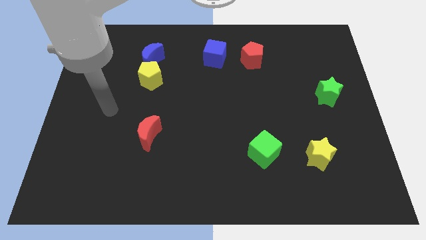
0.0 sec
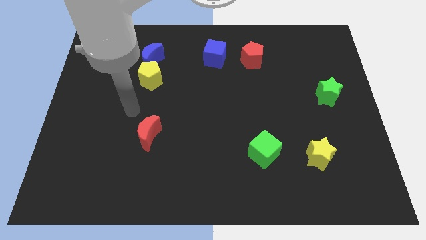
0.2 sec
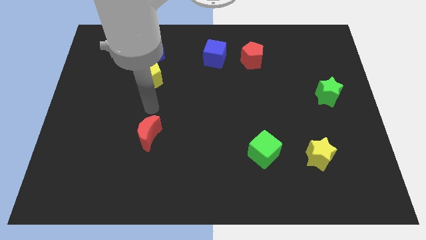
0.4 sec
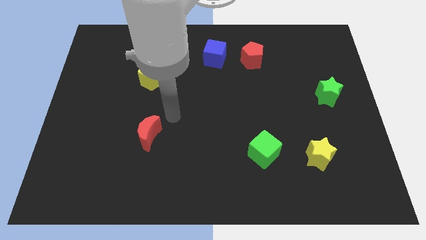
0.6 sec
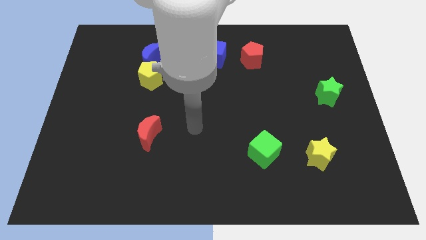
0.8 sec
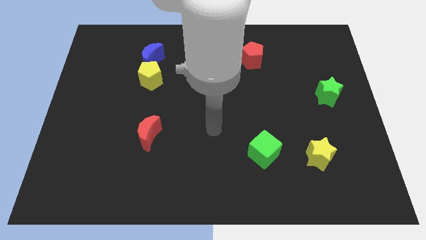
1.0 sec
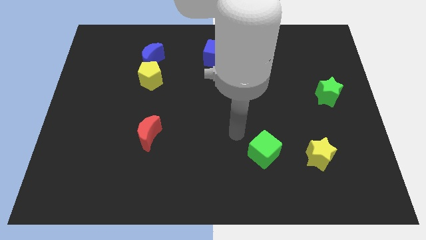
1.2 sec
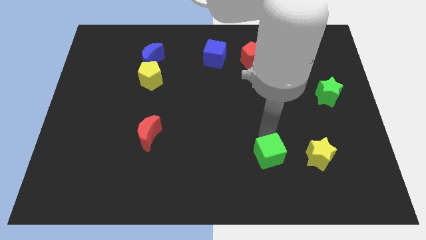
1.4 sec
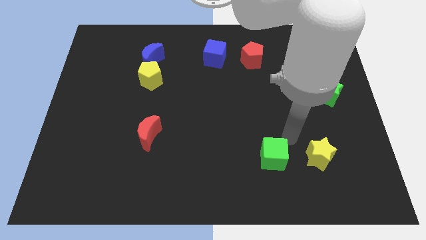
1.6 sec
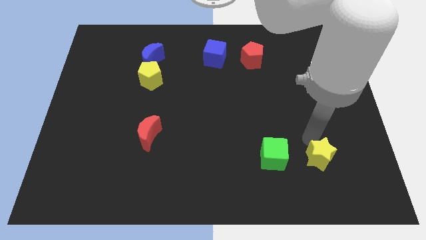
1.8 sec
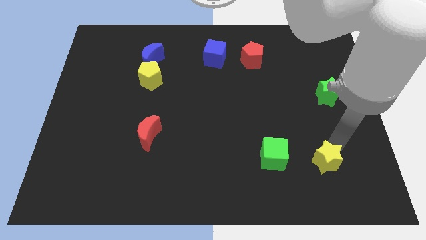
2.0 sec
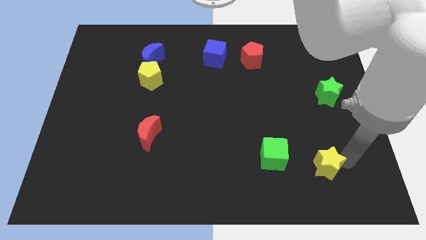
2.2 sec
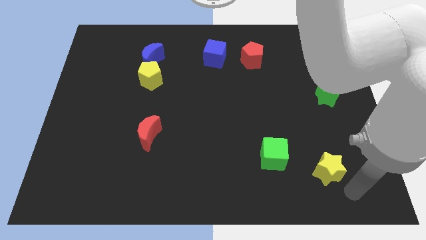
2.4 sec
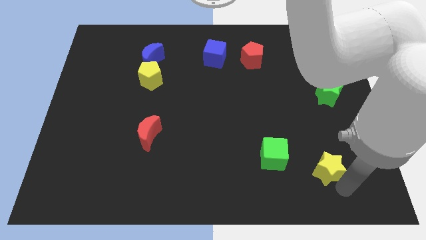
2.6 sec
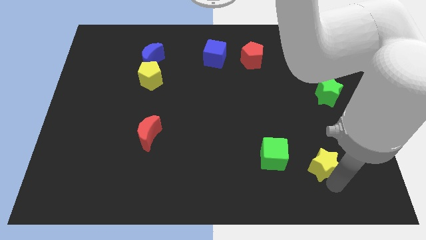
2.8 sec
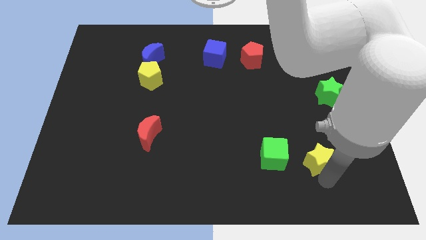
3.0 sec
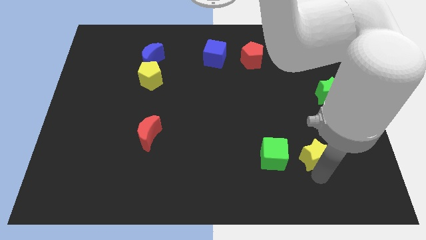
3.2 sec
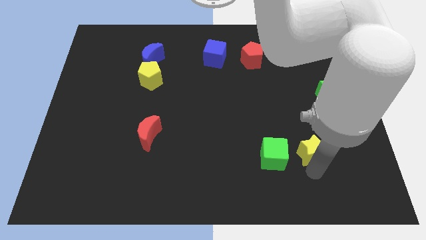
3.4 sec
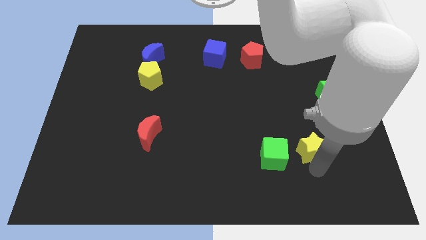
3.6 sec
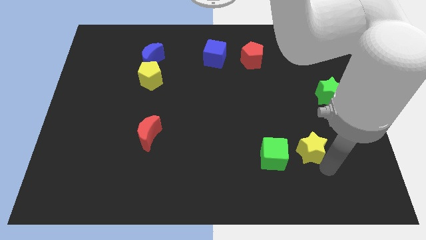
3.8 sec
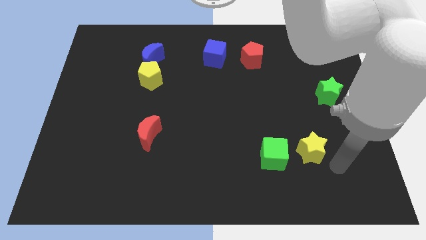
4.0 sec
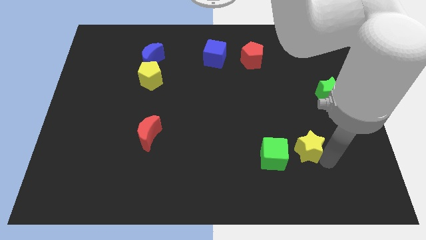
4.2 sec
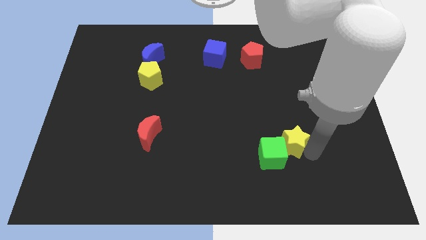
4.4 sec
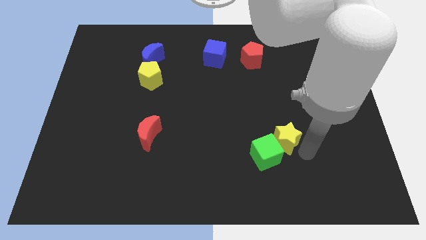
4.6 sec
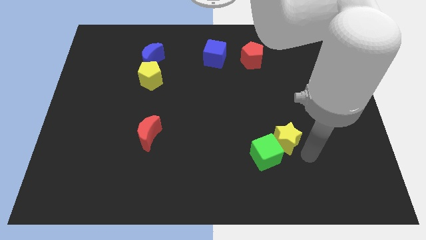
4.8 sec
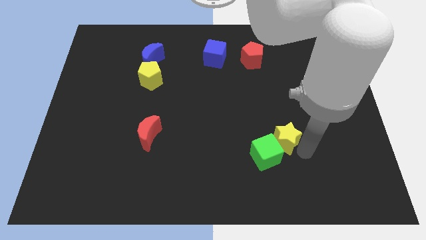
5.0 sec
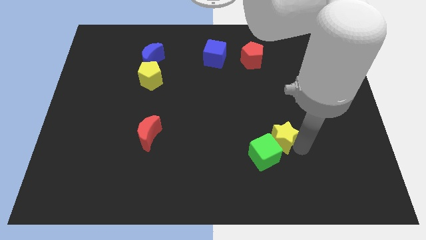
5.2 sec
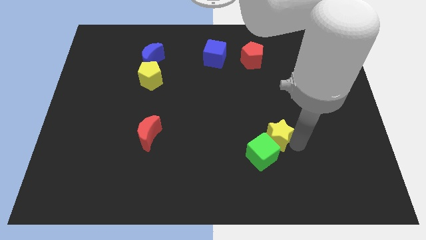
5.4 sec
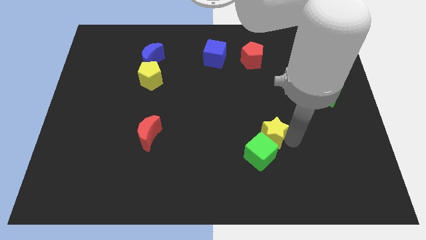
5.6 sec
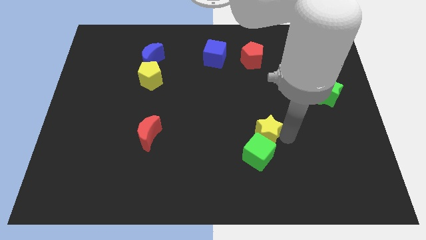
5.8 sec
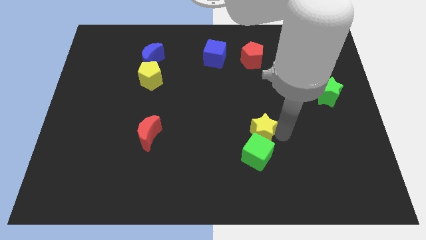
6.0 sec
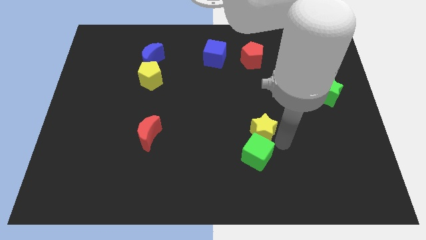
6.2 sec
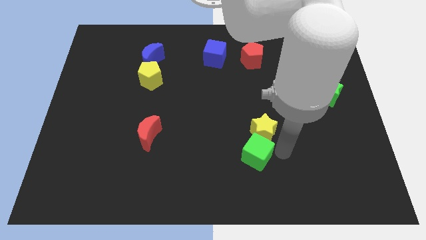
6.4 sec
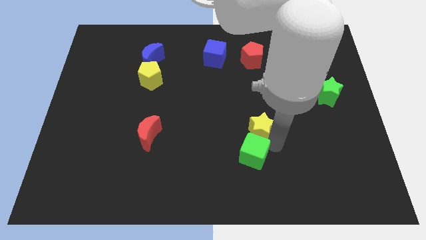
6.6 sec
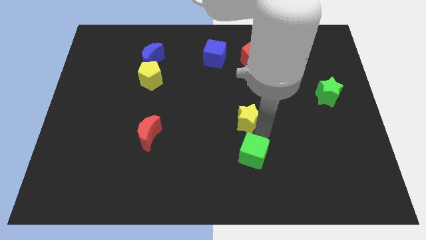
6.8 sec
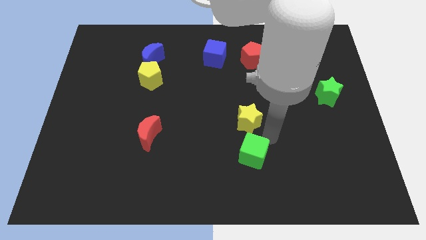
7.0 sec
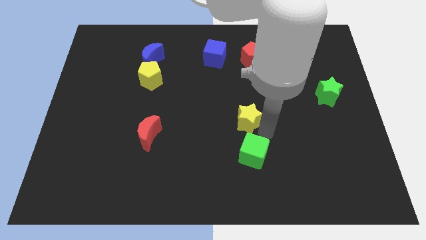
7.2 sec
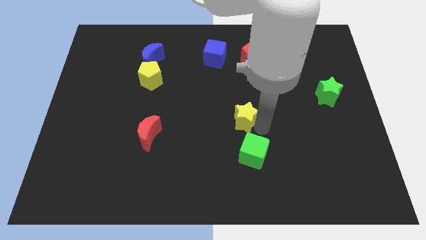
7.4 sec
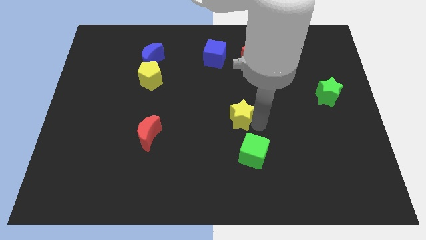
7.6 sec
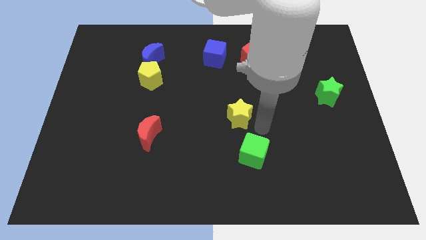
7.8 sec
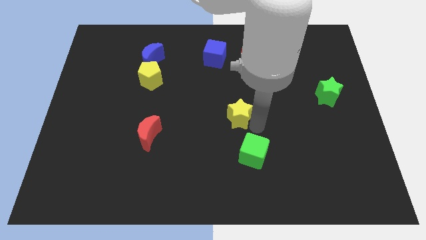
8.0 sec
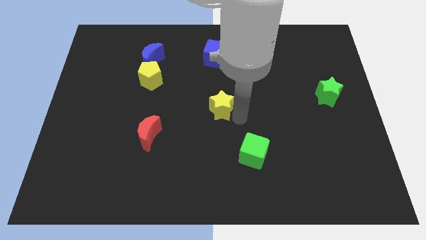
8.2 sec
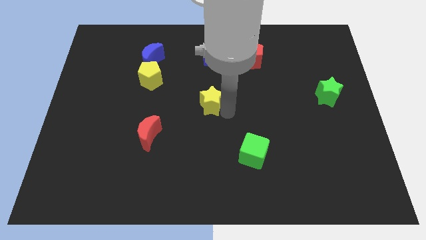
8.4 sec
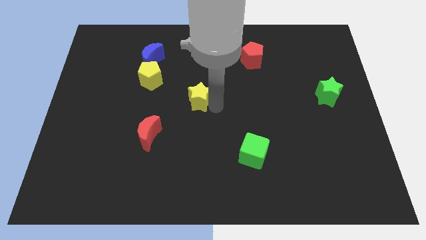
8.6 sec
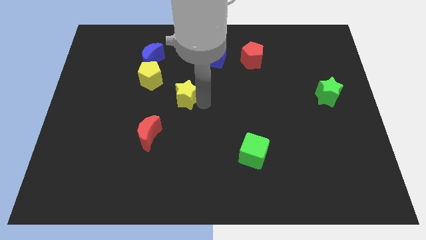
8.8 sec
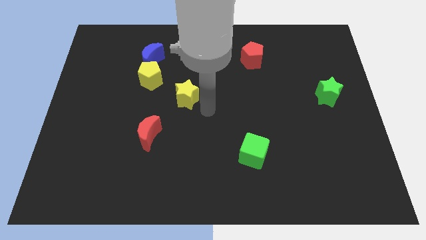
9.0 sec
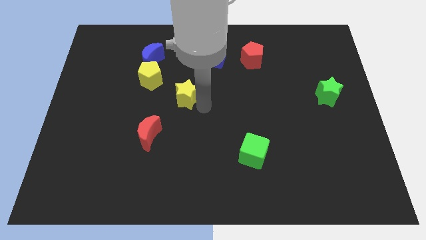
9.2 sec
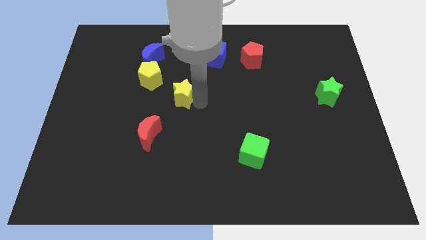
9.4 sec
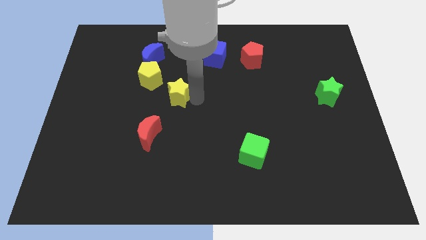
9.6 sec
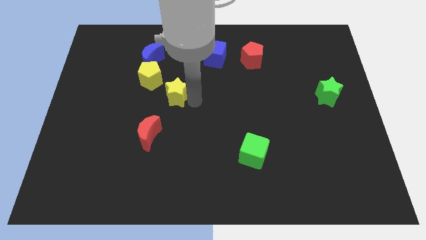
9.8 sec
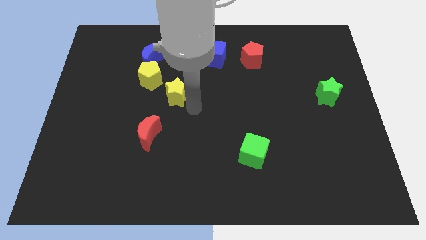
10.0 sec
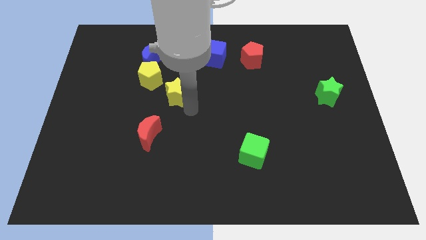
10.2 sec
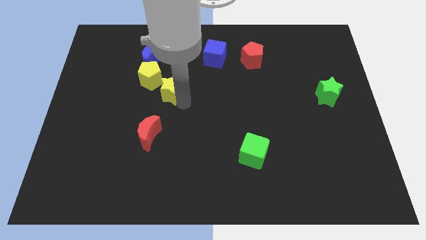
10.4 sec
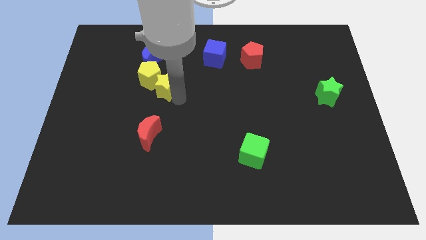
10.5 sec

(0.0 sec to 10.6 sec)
push the yellow star close to the yellow pentagon

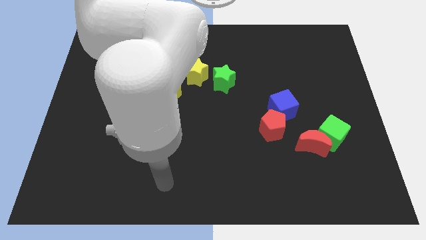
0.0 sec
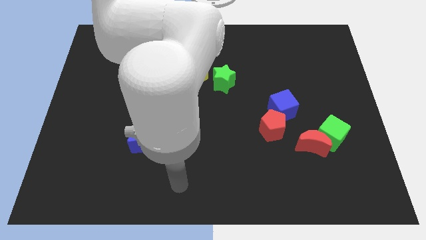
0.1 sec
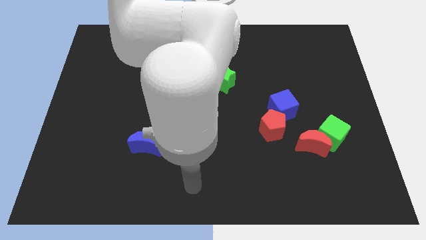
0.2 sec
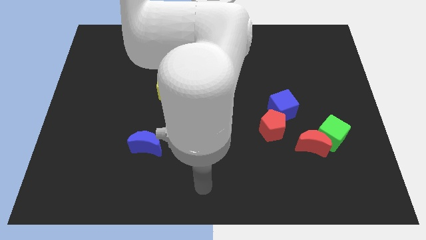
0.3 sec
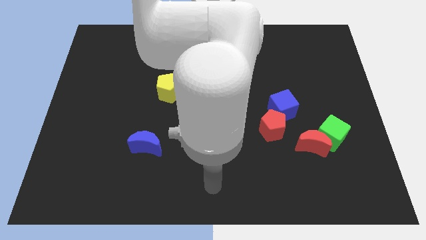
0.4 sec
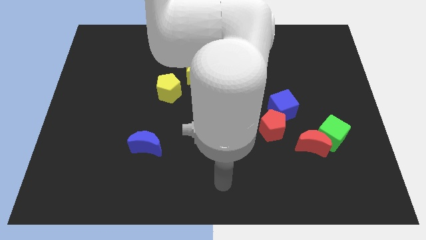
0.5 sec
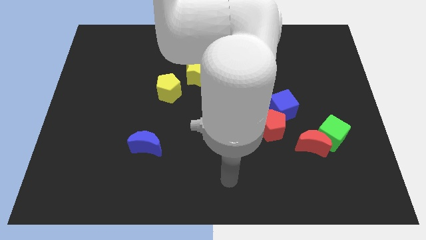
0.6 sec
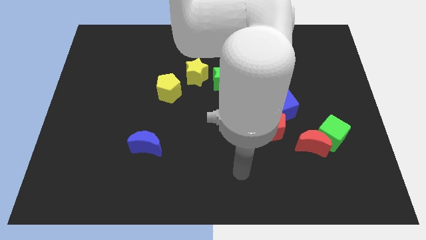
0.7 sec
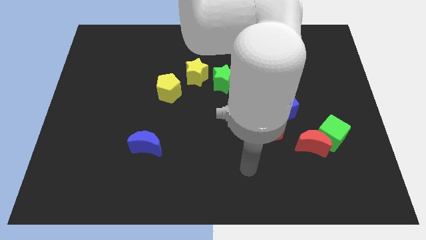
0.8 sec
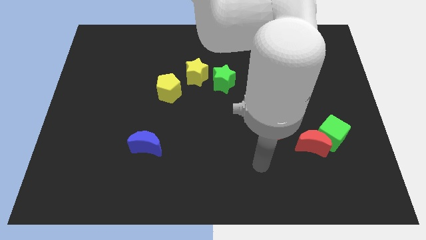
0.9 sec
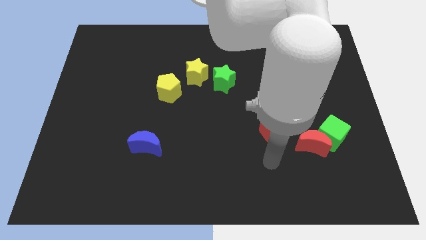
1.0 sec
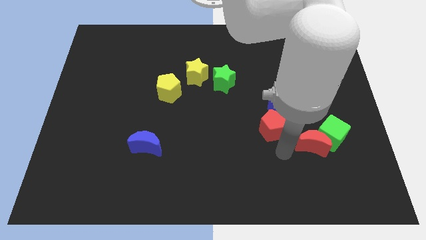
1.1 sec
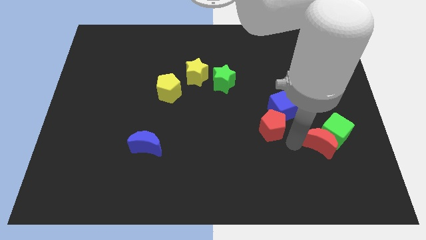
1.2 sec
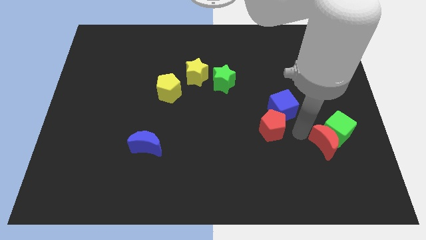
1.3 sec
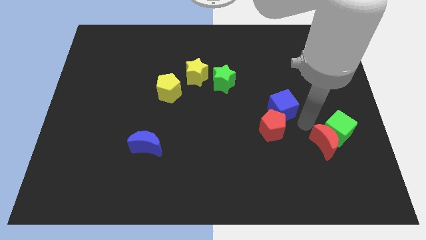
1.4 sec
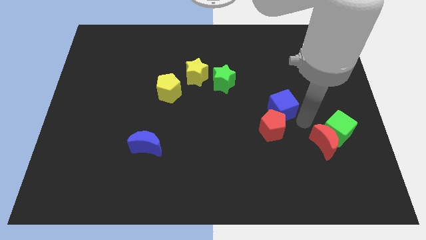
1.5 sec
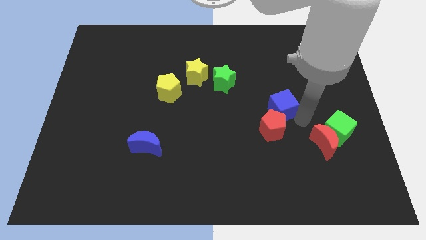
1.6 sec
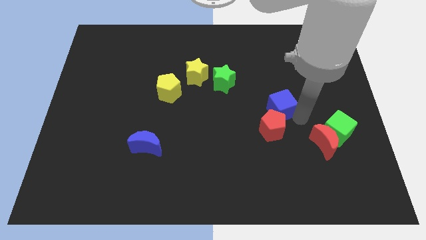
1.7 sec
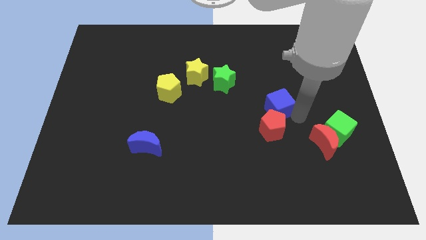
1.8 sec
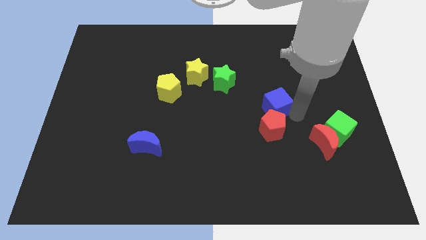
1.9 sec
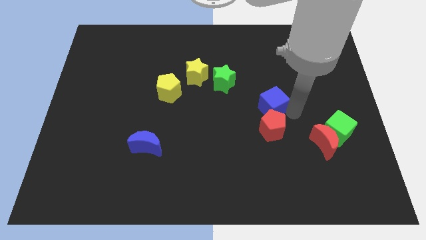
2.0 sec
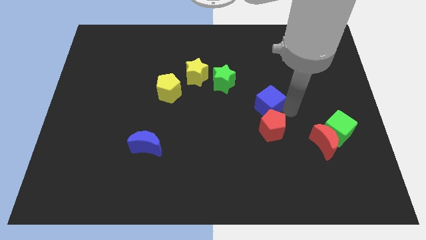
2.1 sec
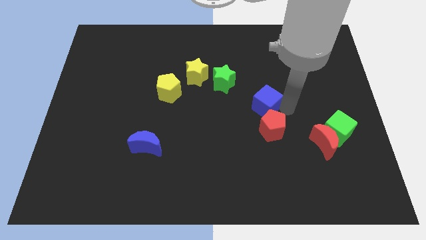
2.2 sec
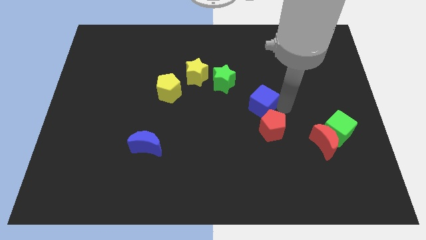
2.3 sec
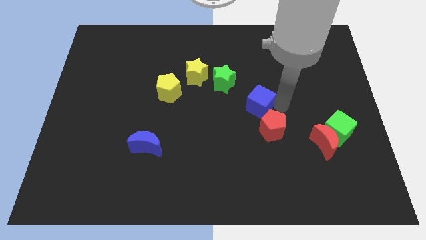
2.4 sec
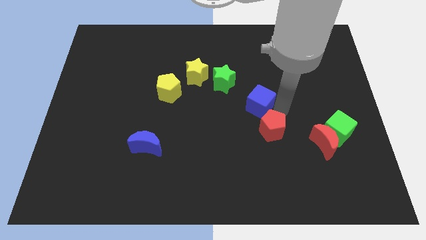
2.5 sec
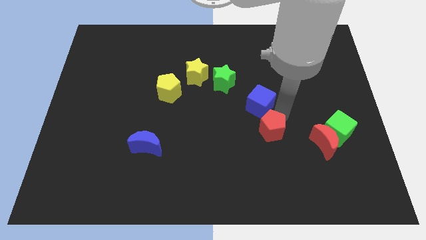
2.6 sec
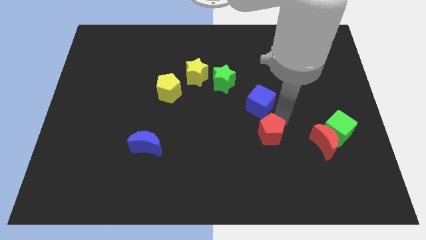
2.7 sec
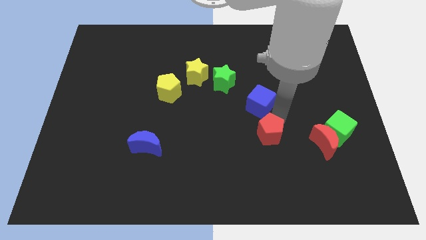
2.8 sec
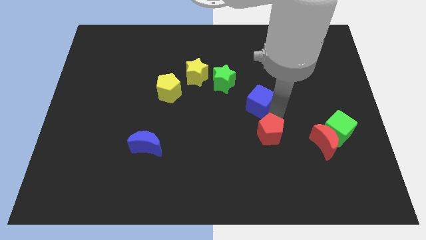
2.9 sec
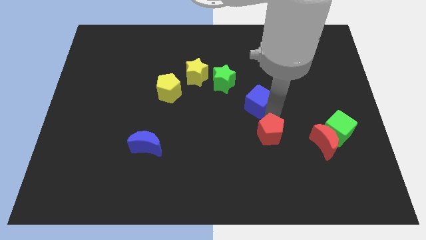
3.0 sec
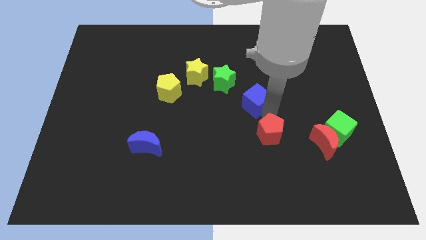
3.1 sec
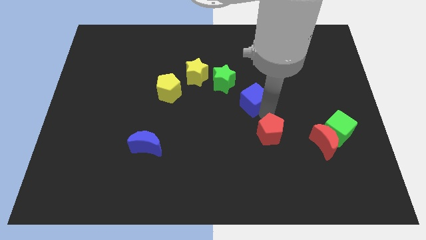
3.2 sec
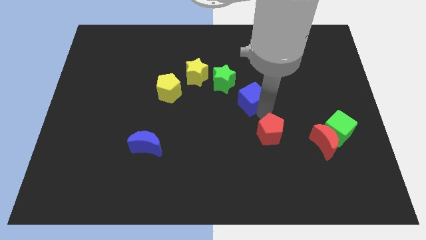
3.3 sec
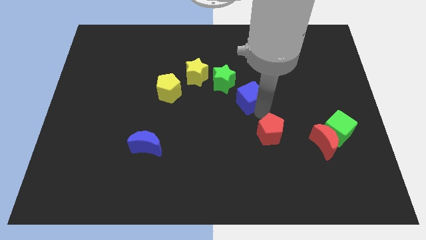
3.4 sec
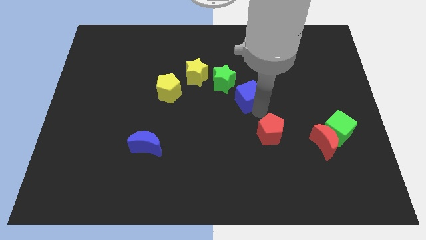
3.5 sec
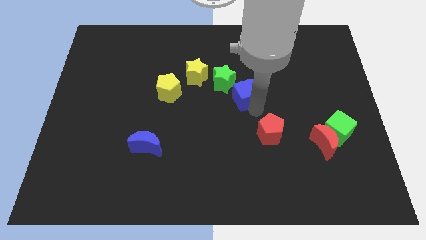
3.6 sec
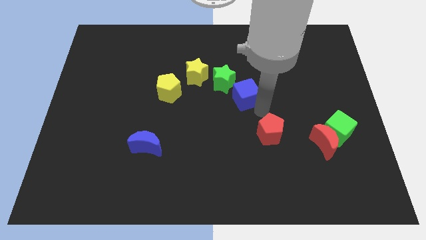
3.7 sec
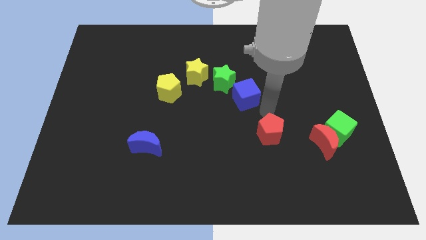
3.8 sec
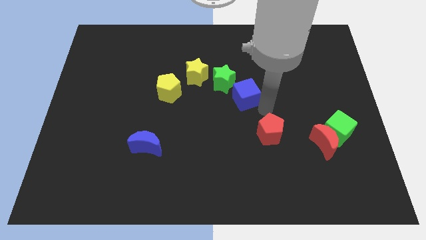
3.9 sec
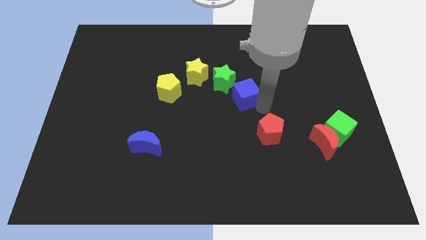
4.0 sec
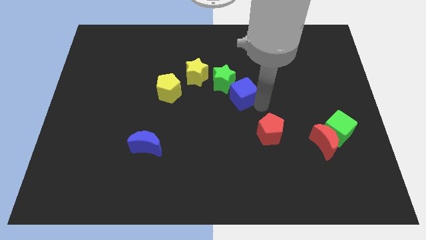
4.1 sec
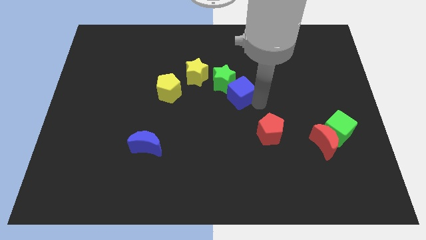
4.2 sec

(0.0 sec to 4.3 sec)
slide the blue cube close to the green star
